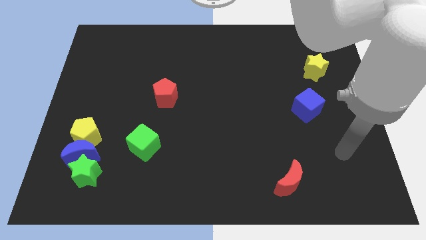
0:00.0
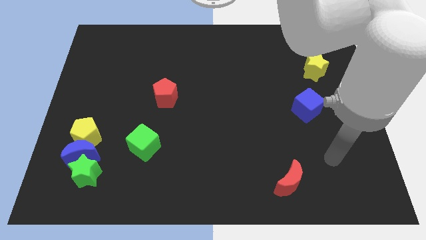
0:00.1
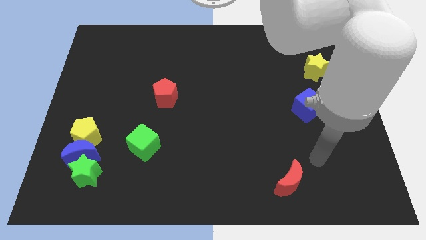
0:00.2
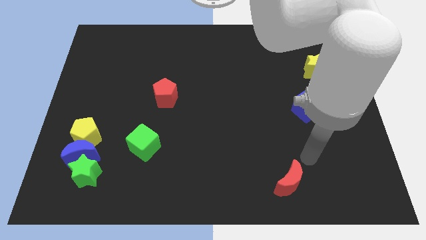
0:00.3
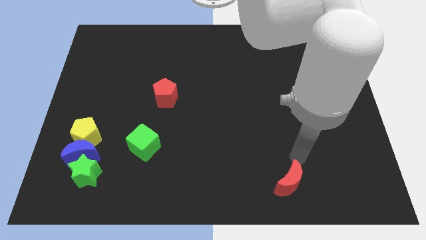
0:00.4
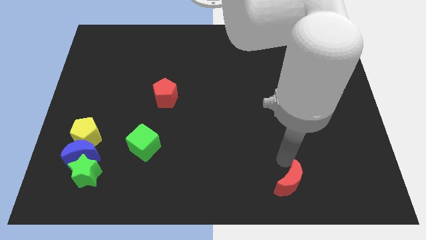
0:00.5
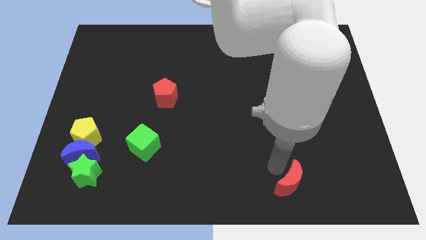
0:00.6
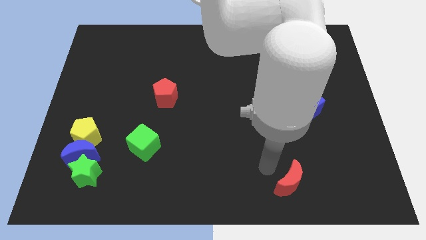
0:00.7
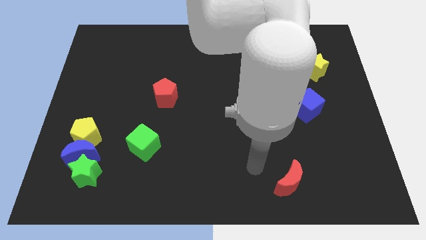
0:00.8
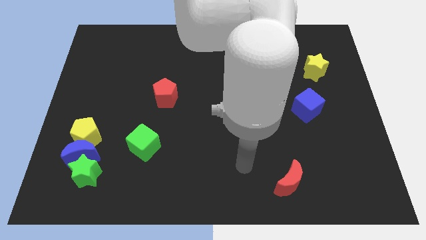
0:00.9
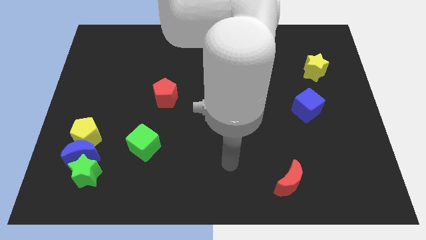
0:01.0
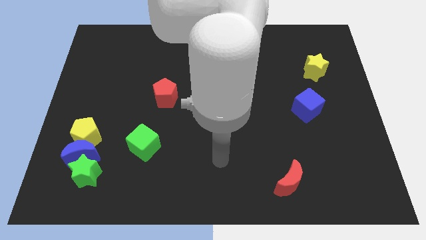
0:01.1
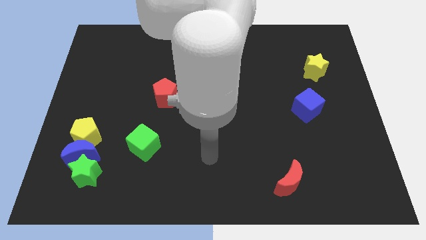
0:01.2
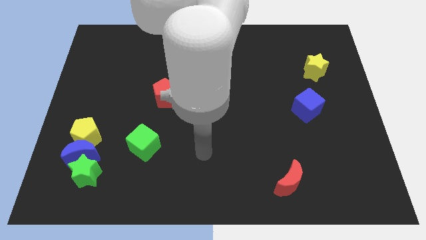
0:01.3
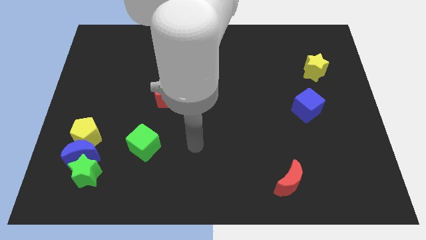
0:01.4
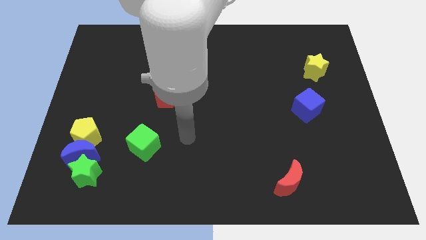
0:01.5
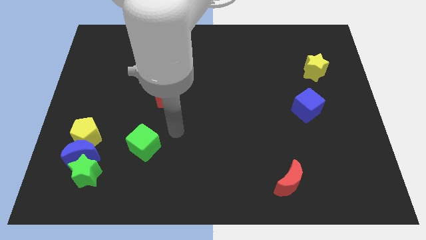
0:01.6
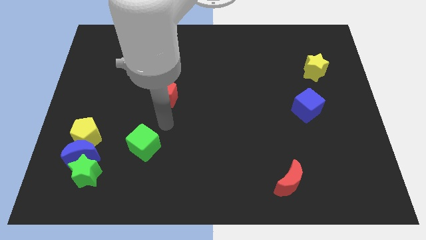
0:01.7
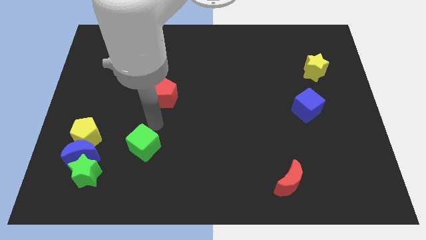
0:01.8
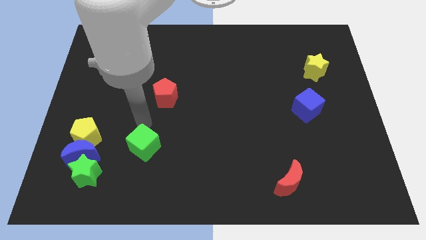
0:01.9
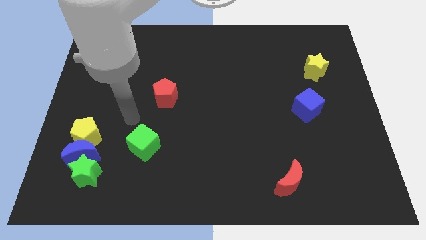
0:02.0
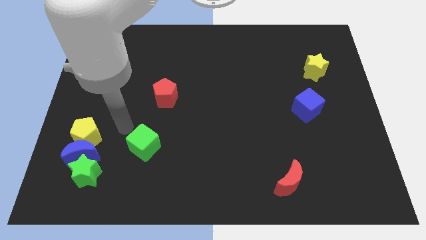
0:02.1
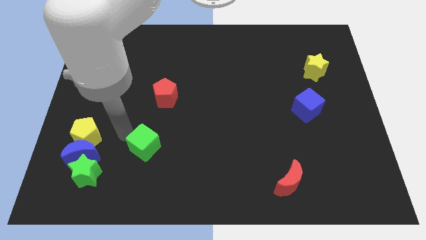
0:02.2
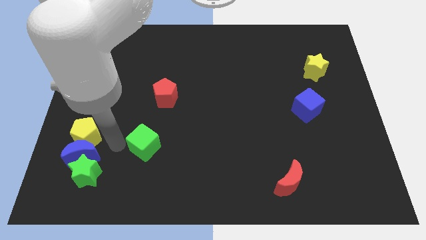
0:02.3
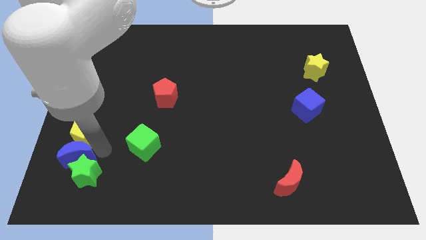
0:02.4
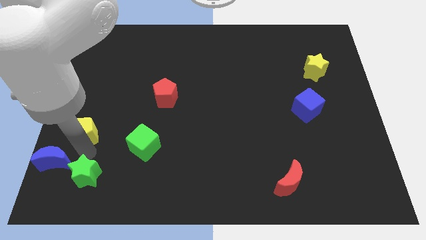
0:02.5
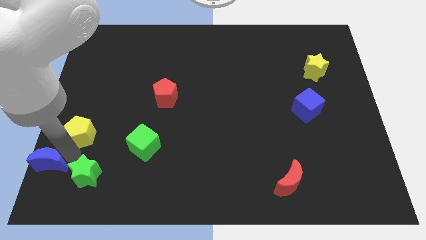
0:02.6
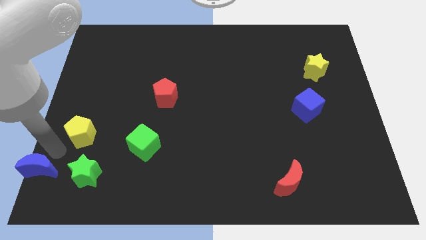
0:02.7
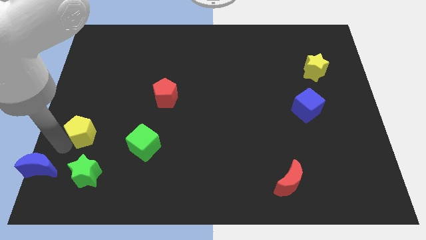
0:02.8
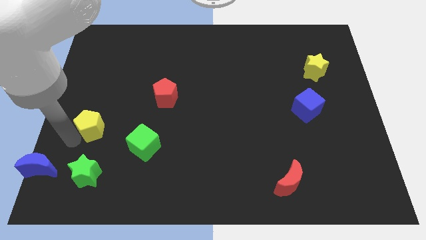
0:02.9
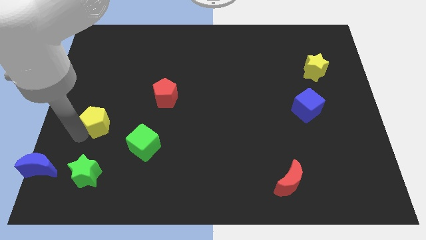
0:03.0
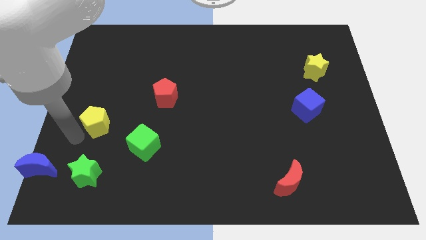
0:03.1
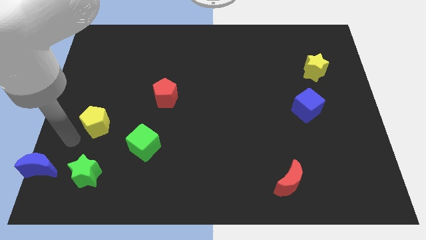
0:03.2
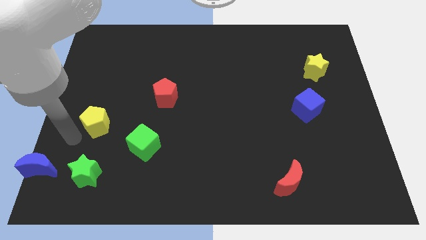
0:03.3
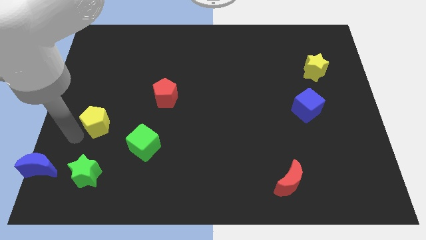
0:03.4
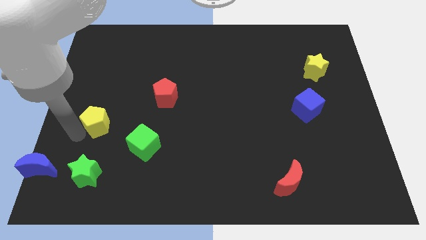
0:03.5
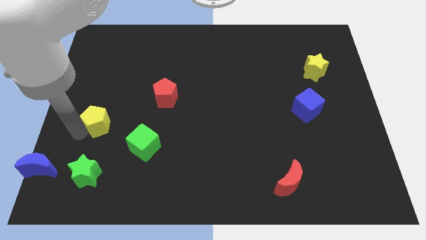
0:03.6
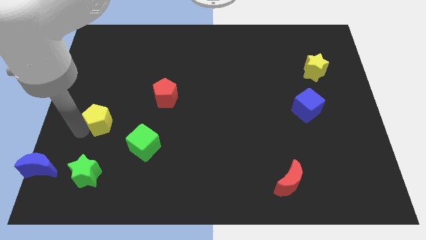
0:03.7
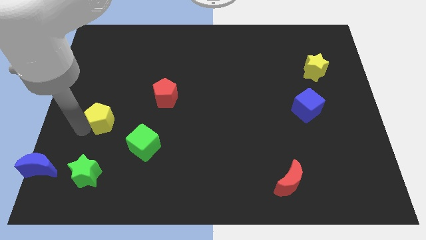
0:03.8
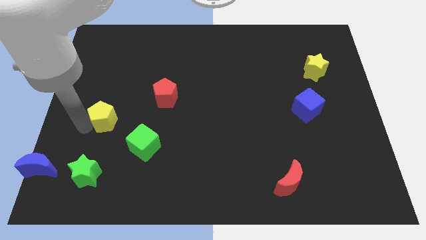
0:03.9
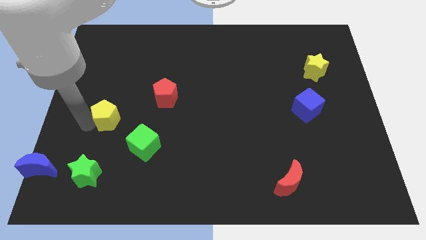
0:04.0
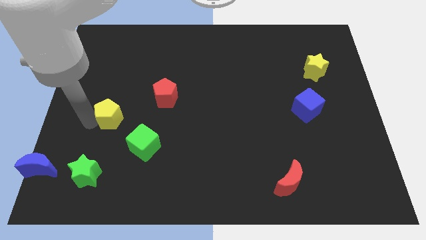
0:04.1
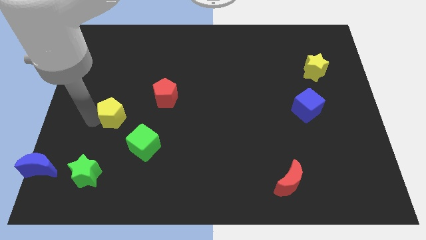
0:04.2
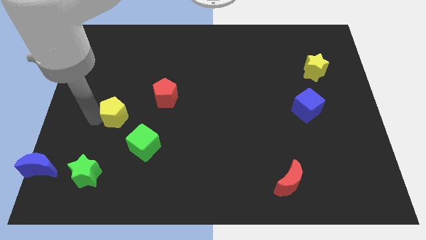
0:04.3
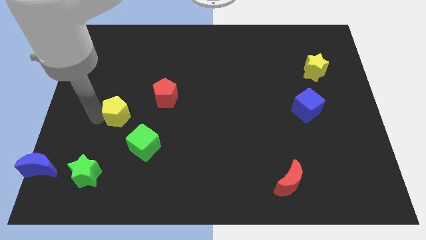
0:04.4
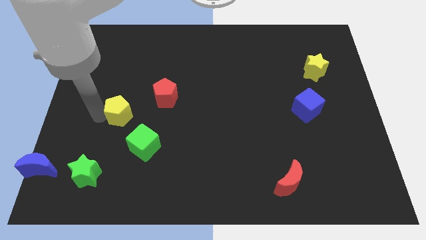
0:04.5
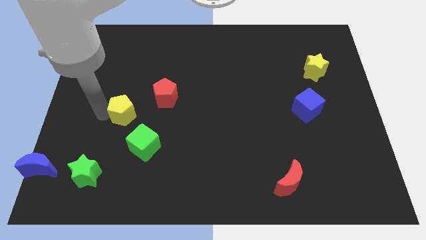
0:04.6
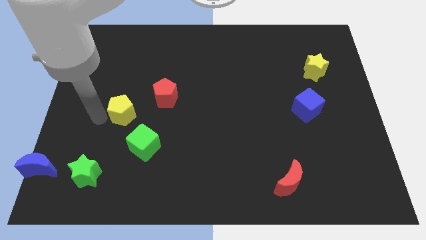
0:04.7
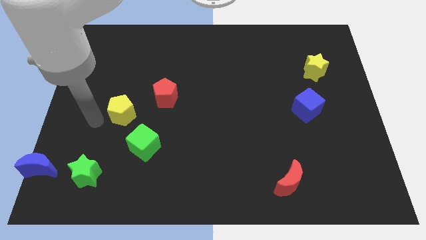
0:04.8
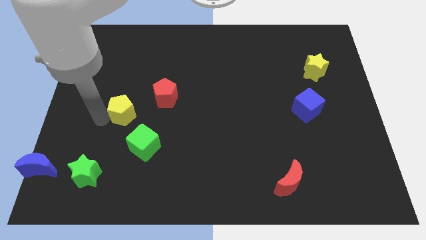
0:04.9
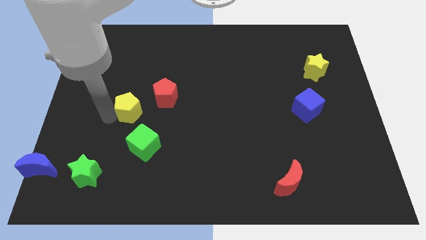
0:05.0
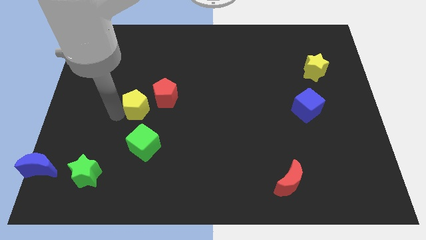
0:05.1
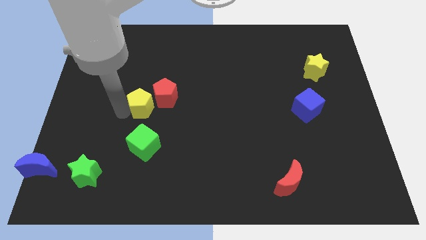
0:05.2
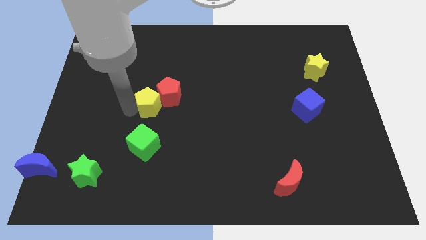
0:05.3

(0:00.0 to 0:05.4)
push the yellow pentagon towards the red pentagon

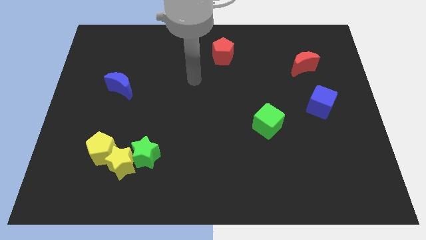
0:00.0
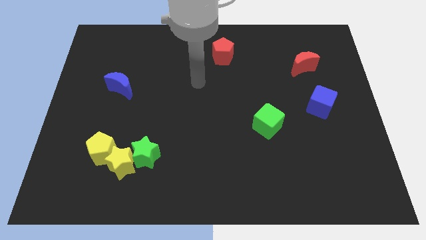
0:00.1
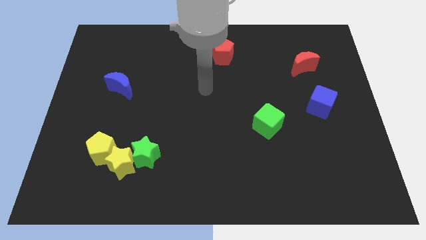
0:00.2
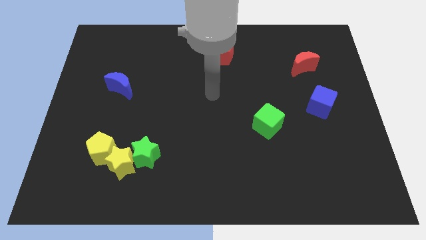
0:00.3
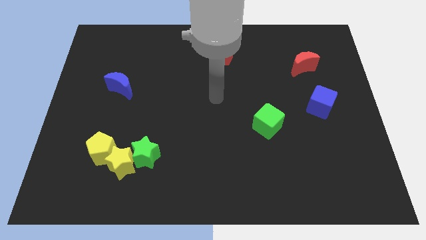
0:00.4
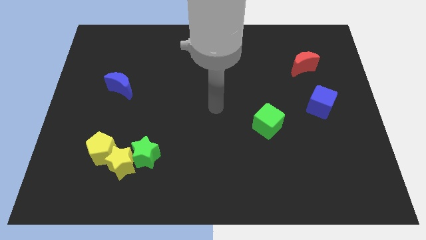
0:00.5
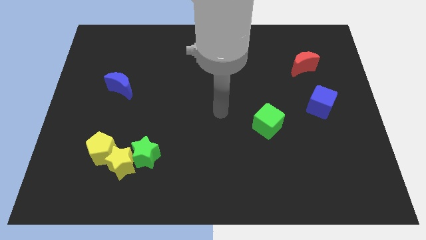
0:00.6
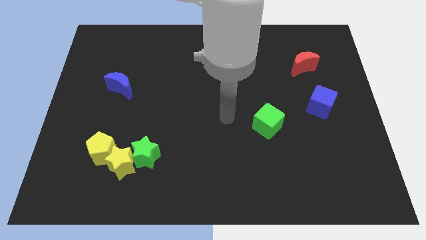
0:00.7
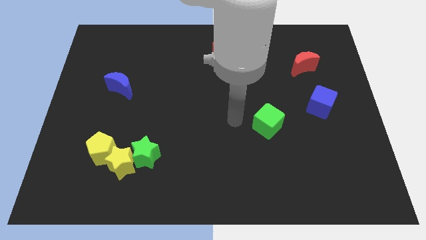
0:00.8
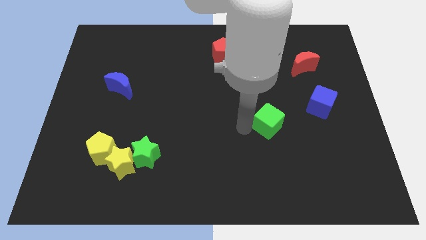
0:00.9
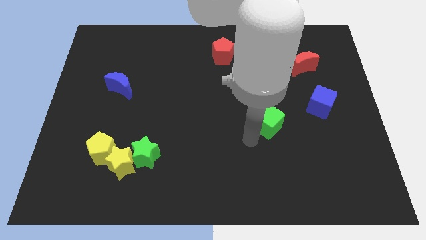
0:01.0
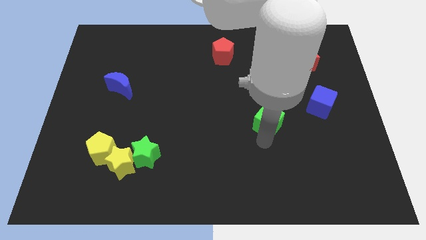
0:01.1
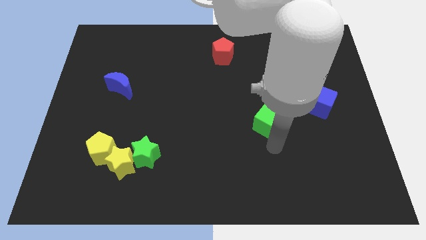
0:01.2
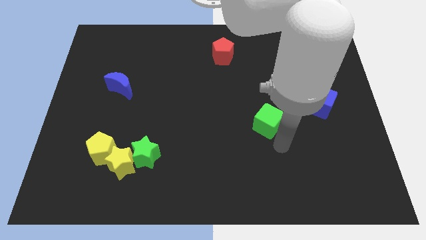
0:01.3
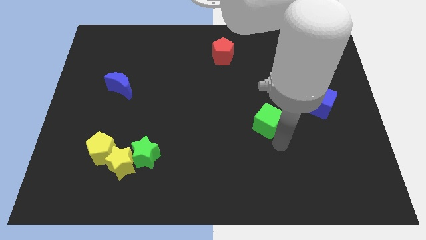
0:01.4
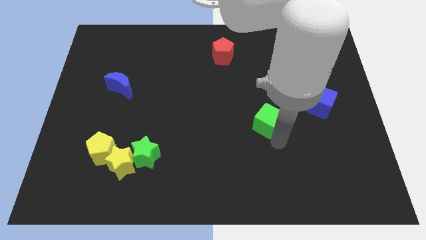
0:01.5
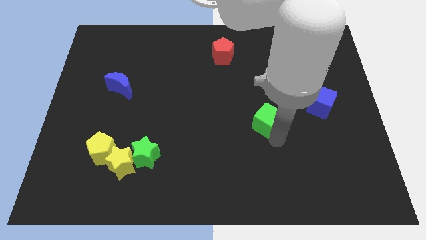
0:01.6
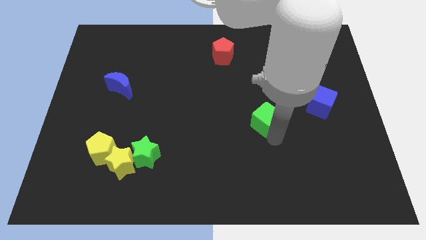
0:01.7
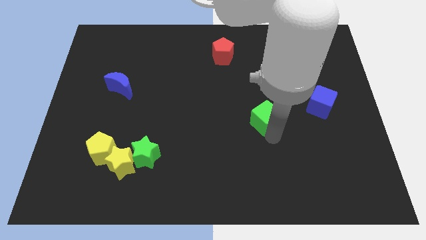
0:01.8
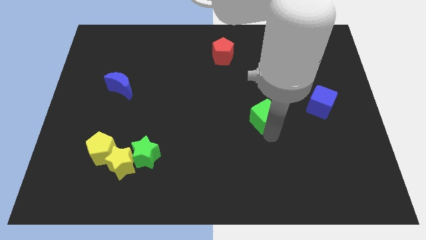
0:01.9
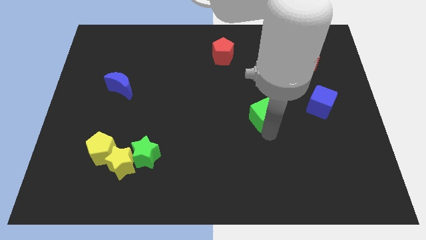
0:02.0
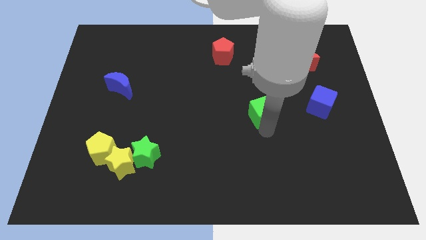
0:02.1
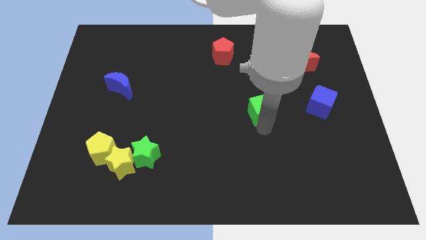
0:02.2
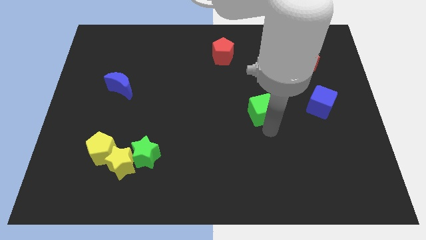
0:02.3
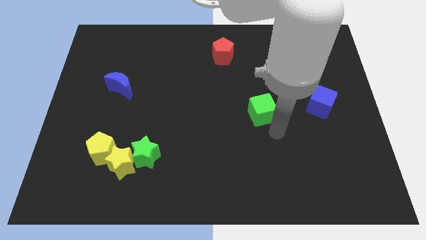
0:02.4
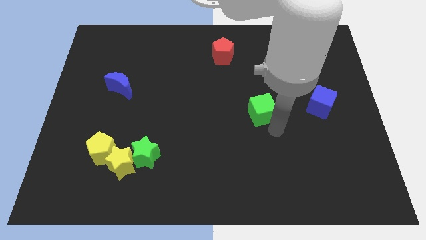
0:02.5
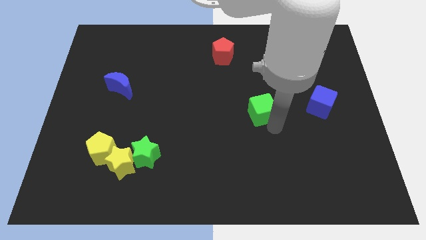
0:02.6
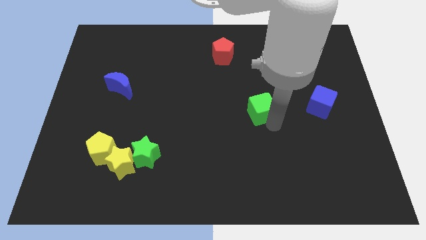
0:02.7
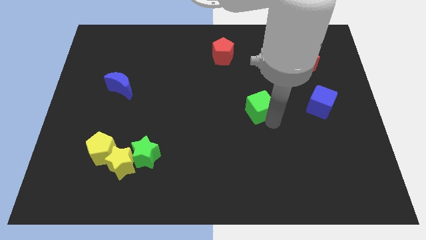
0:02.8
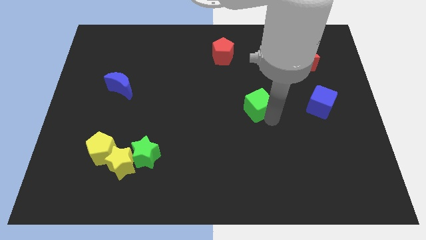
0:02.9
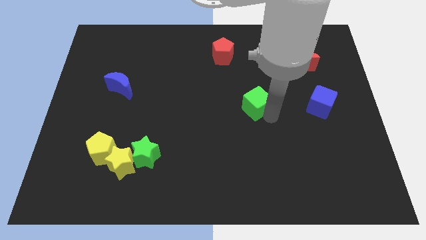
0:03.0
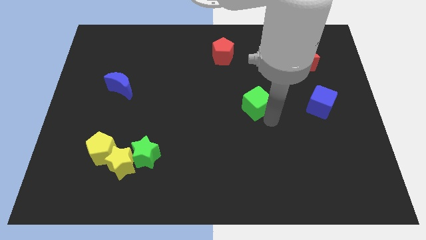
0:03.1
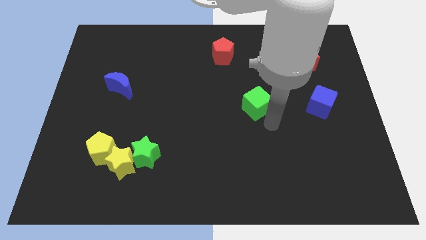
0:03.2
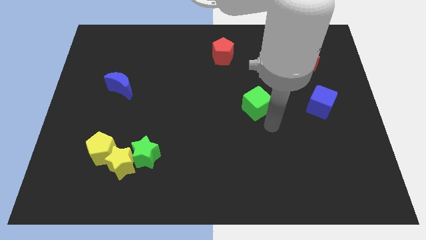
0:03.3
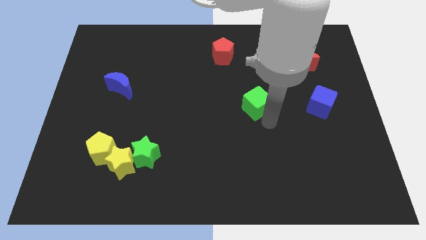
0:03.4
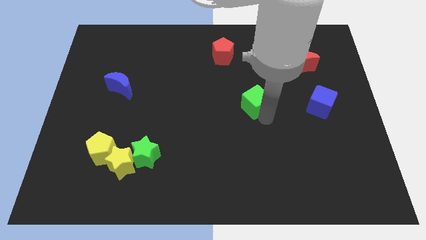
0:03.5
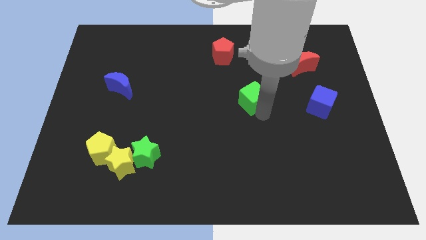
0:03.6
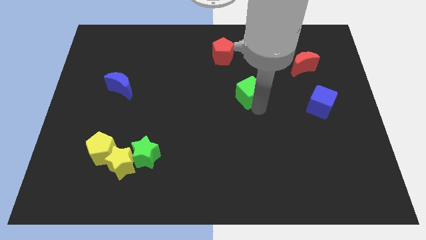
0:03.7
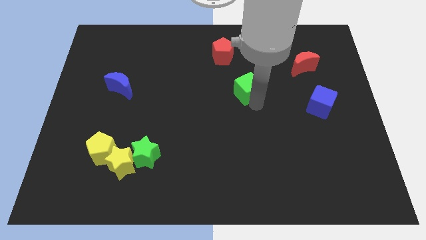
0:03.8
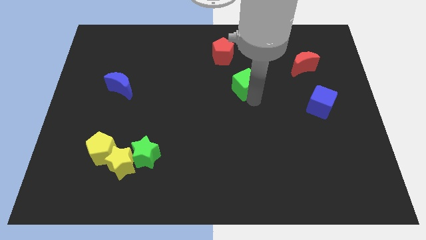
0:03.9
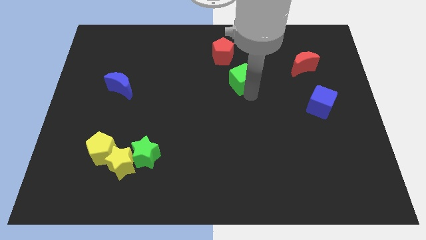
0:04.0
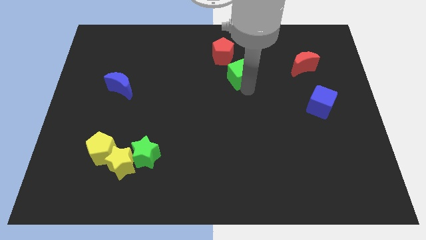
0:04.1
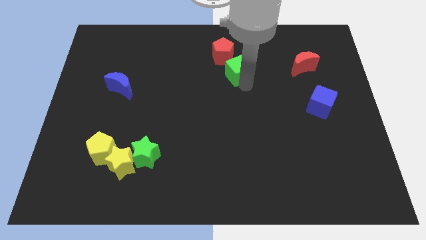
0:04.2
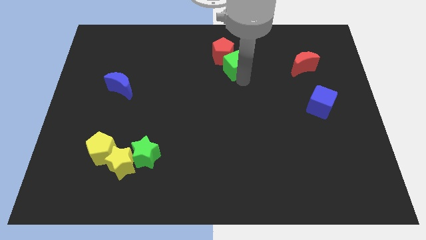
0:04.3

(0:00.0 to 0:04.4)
move the green cube close to the red pentagon
